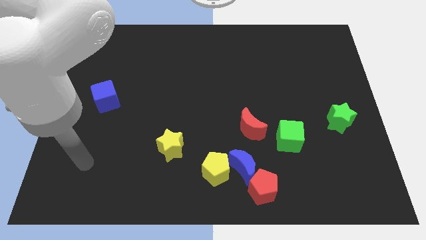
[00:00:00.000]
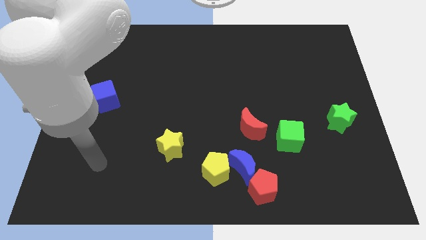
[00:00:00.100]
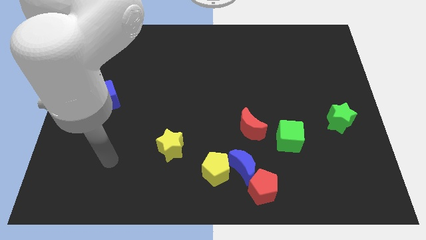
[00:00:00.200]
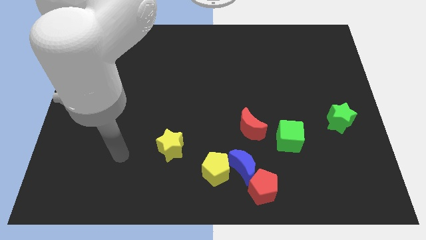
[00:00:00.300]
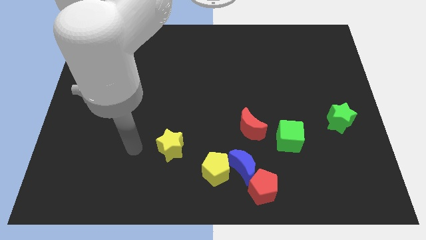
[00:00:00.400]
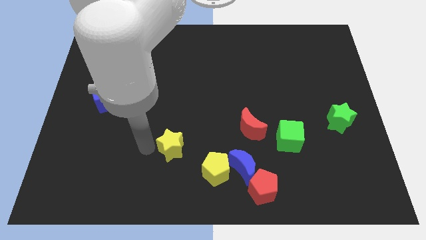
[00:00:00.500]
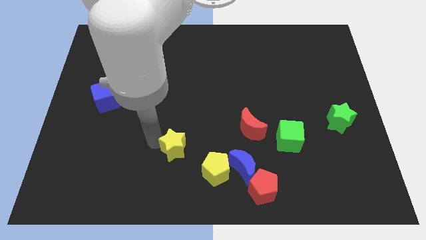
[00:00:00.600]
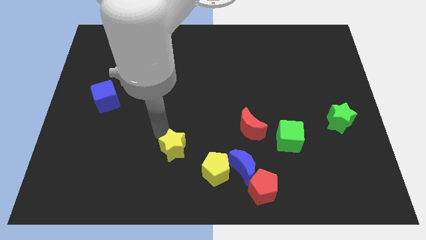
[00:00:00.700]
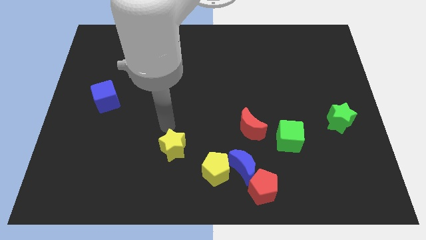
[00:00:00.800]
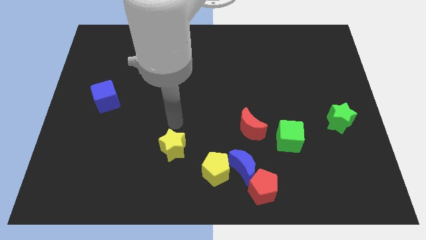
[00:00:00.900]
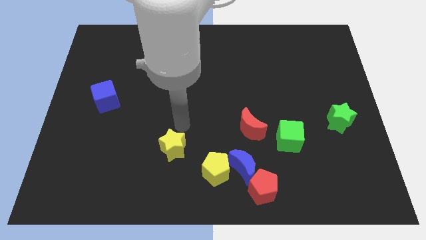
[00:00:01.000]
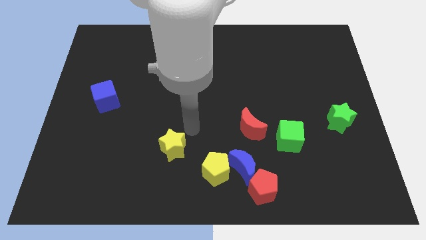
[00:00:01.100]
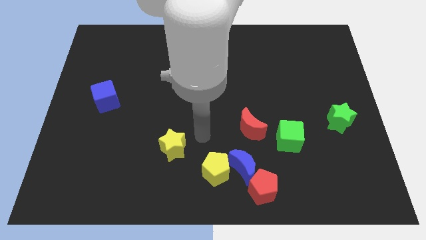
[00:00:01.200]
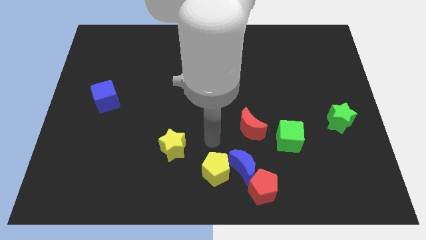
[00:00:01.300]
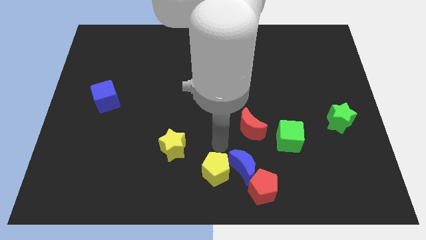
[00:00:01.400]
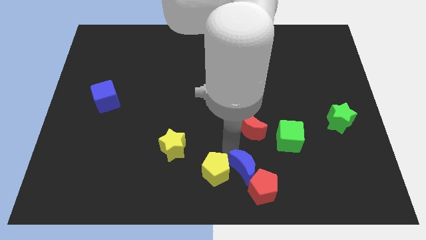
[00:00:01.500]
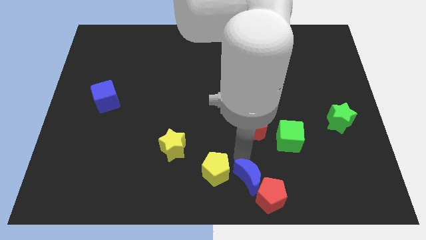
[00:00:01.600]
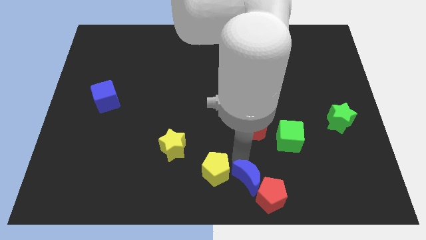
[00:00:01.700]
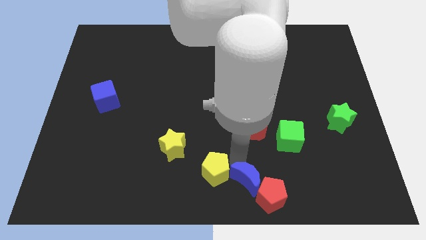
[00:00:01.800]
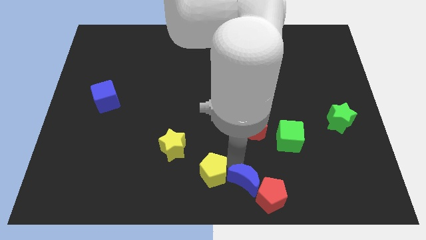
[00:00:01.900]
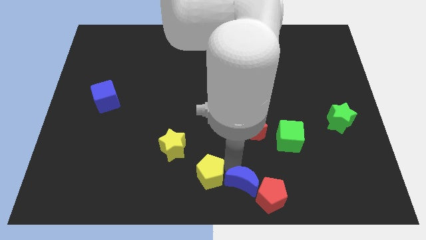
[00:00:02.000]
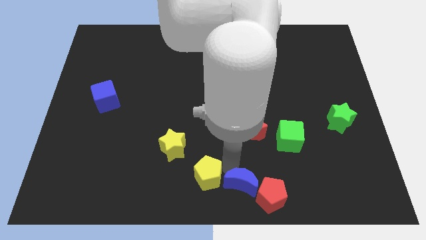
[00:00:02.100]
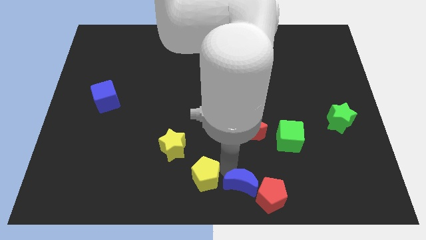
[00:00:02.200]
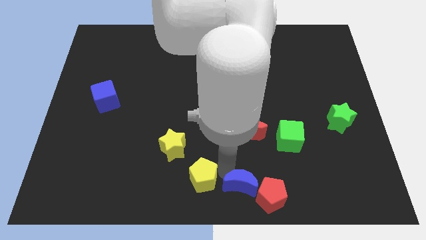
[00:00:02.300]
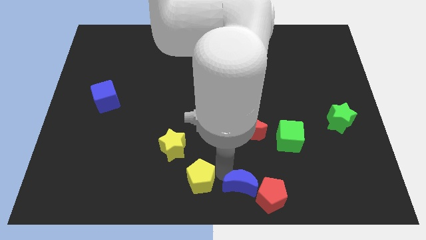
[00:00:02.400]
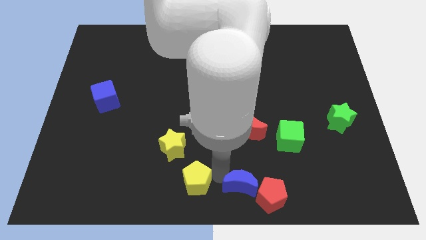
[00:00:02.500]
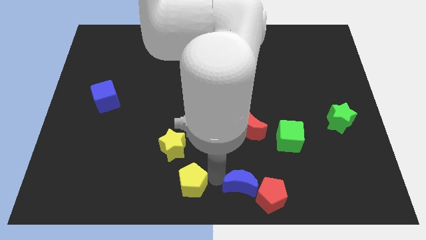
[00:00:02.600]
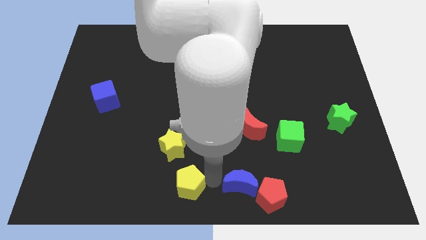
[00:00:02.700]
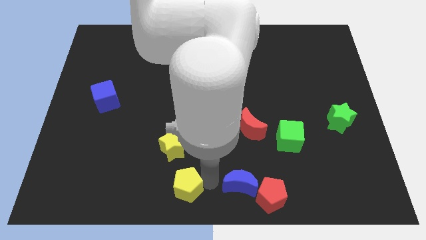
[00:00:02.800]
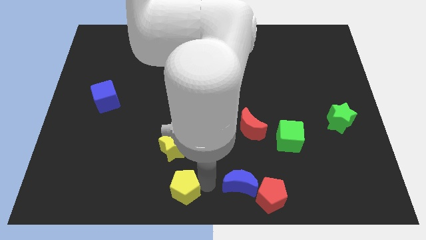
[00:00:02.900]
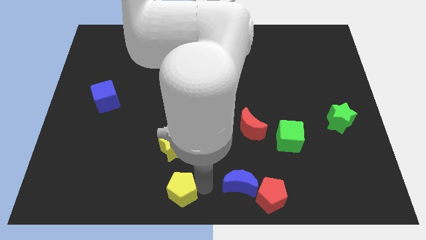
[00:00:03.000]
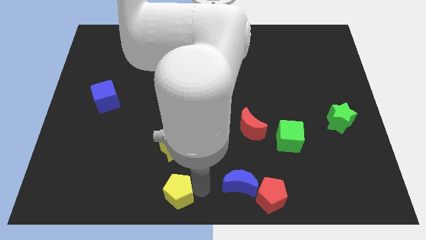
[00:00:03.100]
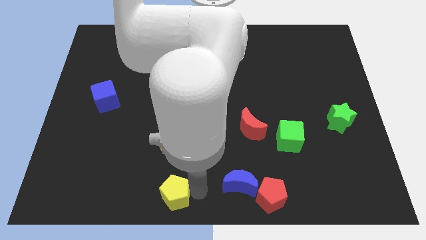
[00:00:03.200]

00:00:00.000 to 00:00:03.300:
slightly slide the yellow pentagon left

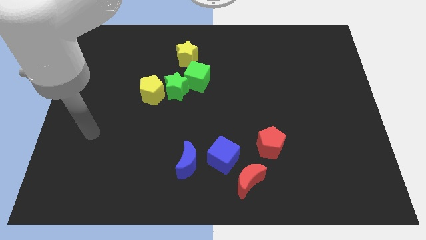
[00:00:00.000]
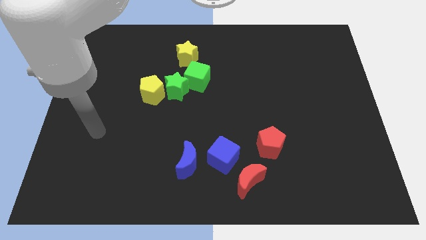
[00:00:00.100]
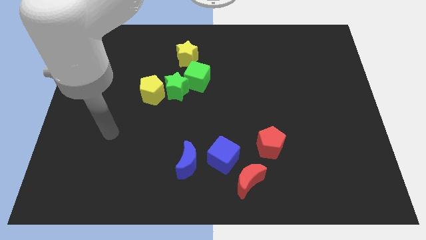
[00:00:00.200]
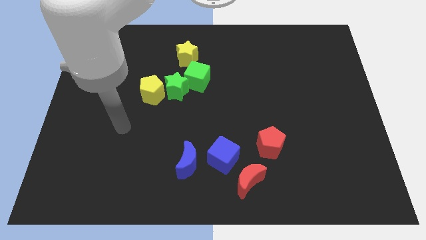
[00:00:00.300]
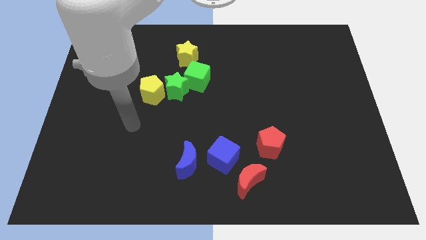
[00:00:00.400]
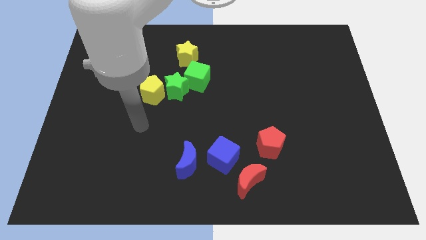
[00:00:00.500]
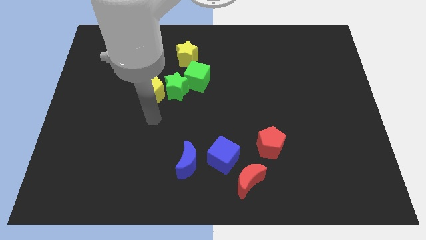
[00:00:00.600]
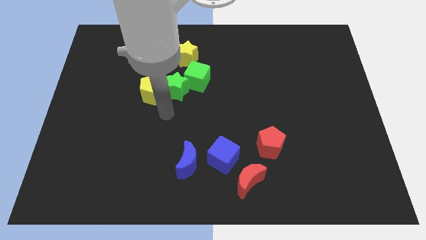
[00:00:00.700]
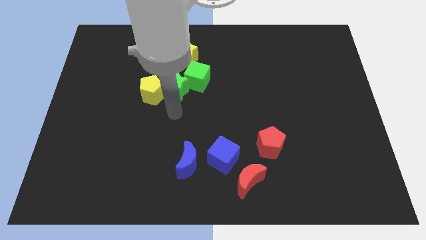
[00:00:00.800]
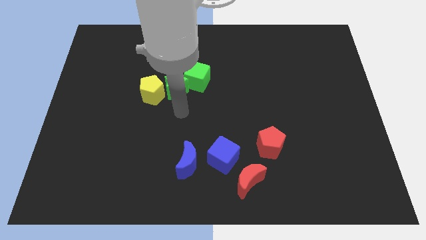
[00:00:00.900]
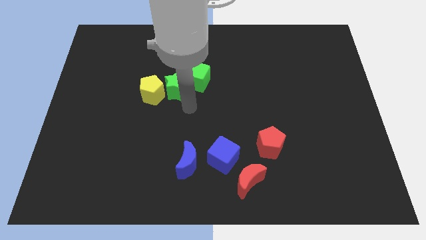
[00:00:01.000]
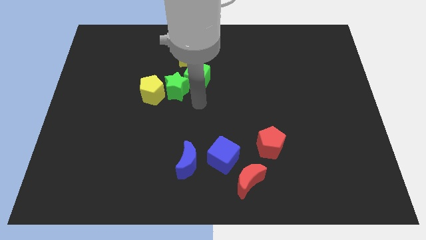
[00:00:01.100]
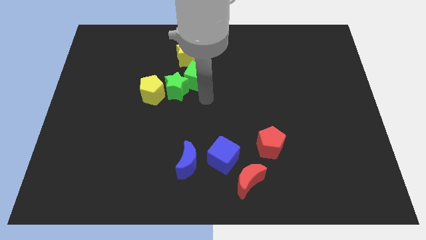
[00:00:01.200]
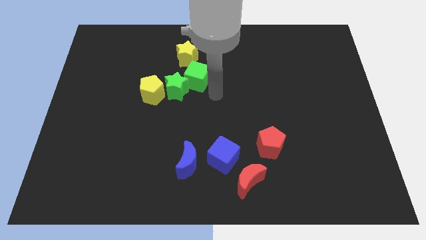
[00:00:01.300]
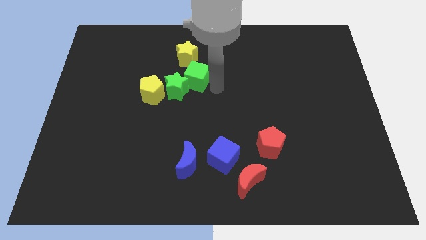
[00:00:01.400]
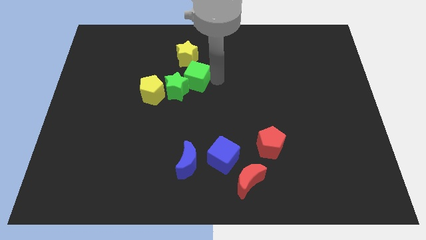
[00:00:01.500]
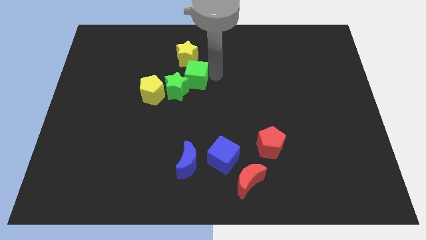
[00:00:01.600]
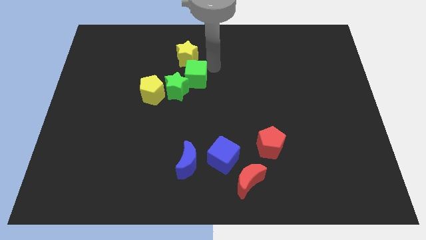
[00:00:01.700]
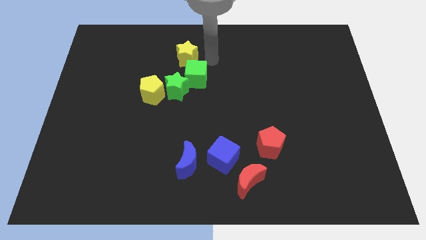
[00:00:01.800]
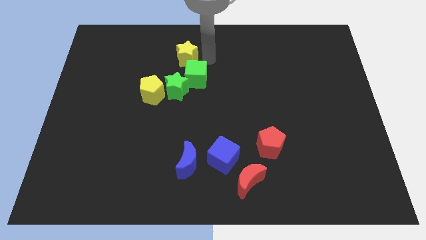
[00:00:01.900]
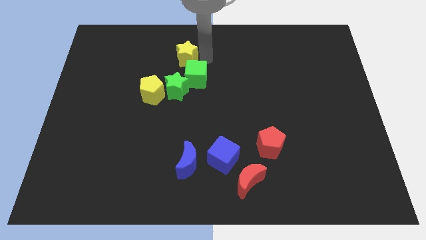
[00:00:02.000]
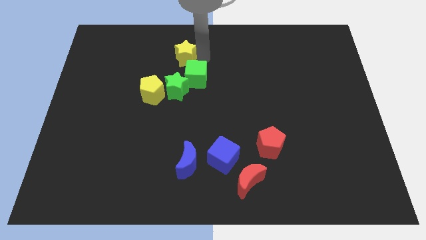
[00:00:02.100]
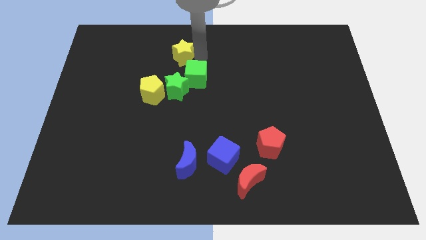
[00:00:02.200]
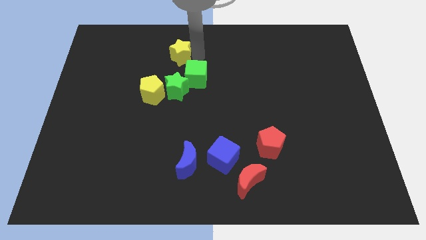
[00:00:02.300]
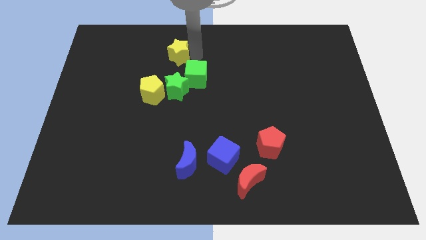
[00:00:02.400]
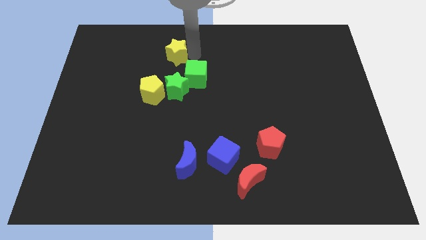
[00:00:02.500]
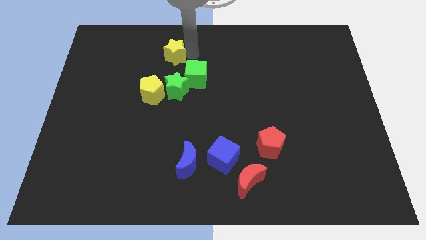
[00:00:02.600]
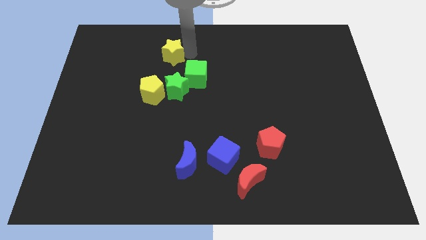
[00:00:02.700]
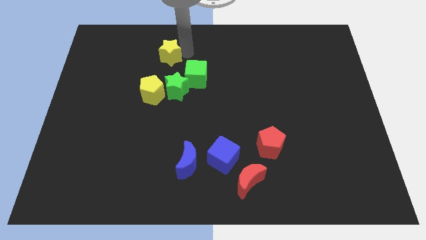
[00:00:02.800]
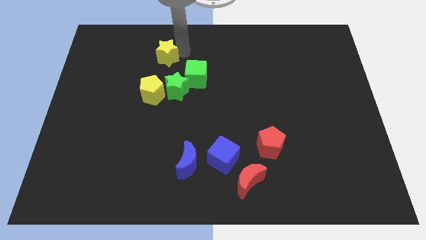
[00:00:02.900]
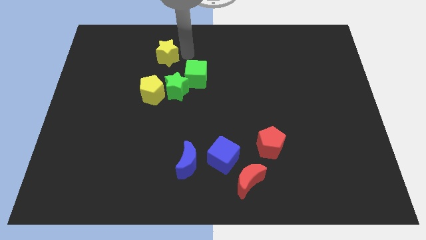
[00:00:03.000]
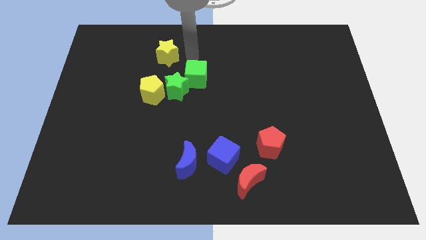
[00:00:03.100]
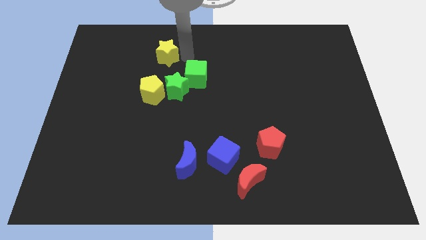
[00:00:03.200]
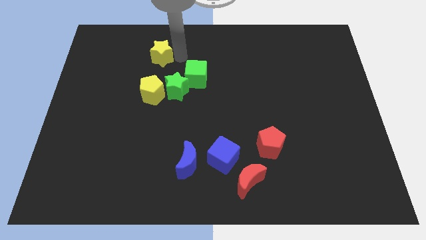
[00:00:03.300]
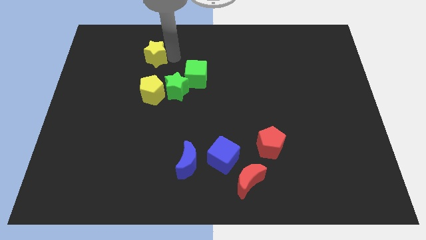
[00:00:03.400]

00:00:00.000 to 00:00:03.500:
move the yellow star left slightly

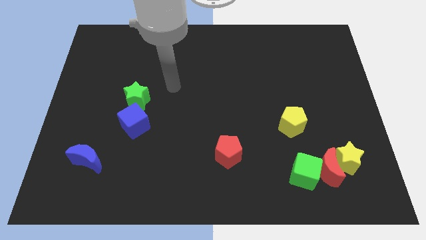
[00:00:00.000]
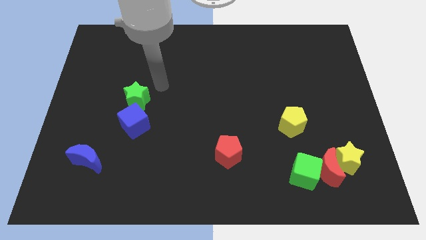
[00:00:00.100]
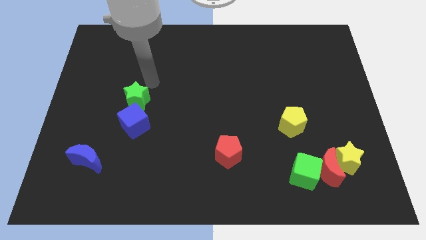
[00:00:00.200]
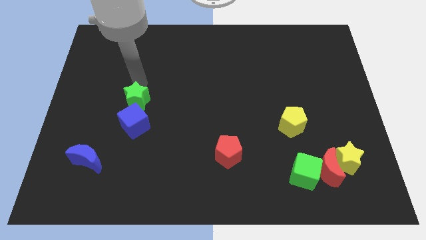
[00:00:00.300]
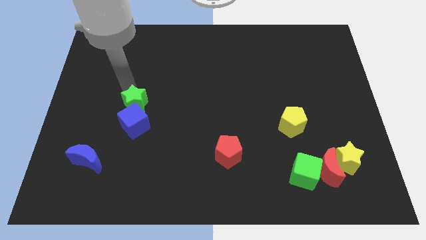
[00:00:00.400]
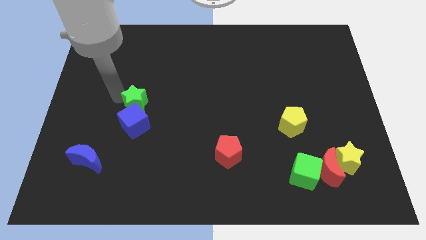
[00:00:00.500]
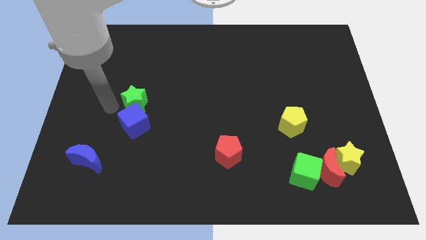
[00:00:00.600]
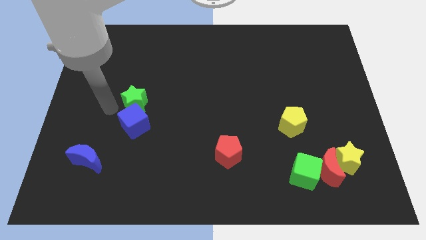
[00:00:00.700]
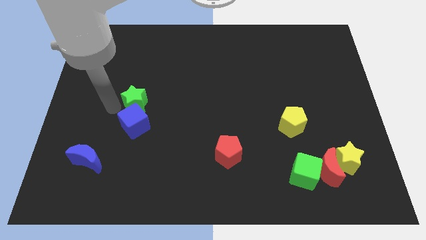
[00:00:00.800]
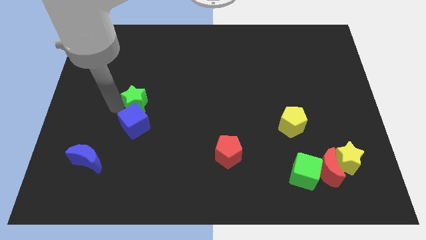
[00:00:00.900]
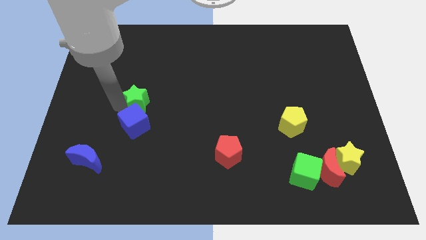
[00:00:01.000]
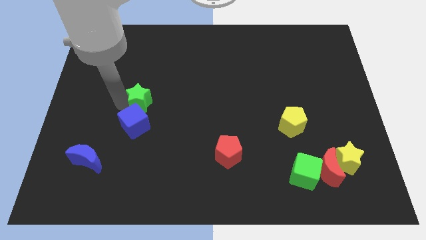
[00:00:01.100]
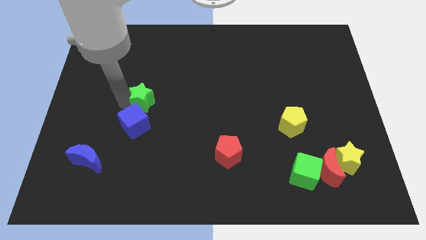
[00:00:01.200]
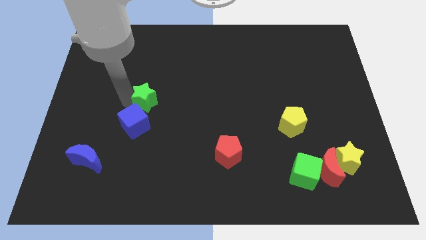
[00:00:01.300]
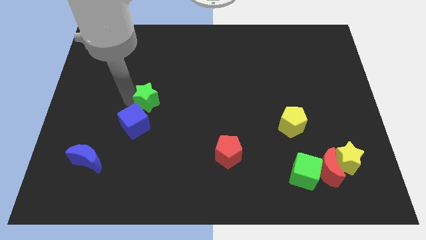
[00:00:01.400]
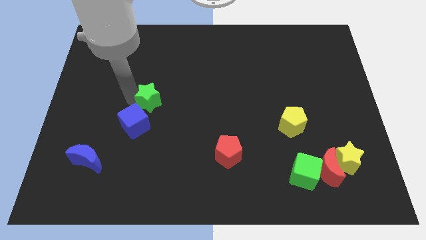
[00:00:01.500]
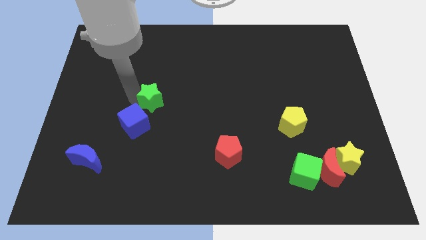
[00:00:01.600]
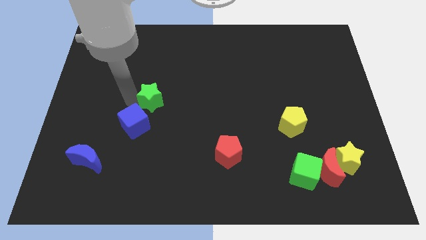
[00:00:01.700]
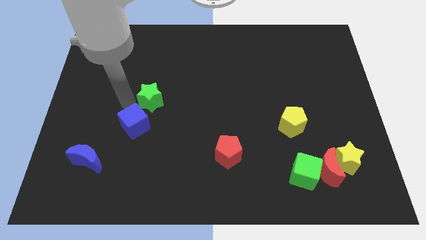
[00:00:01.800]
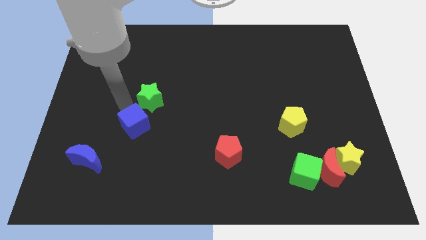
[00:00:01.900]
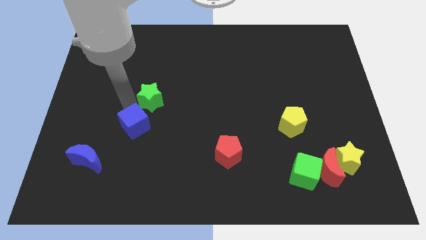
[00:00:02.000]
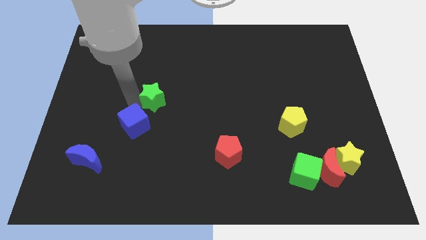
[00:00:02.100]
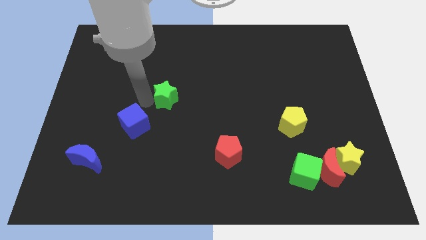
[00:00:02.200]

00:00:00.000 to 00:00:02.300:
slide the green star right a little
